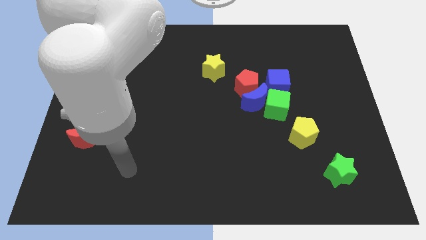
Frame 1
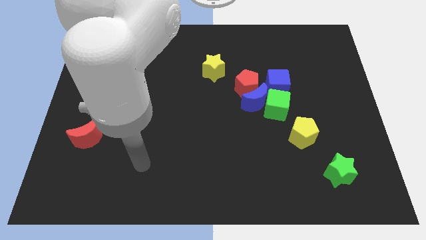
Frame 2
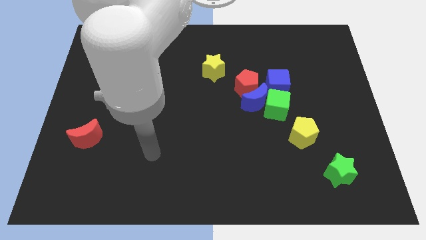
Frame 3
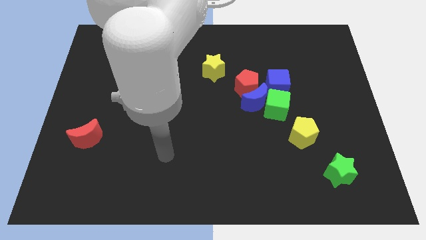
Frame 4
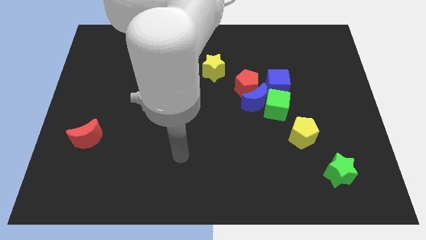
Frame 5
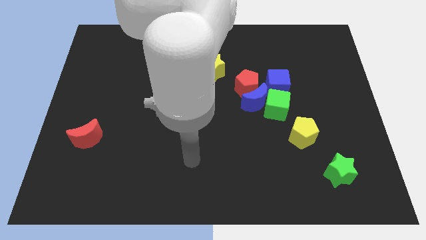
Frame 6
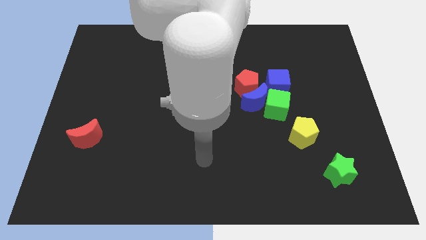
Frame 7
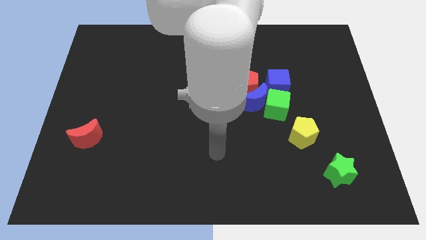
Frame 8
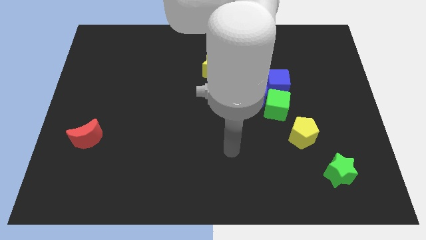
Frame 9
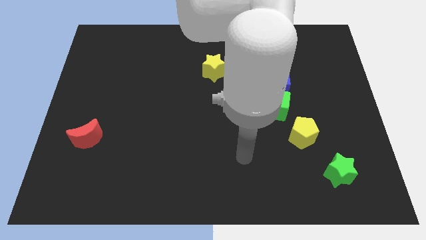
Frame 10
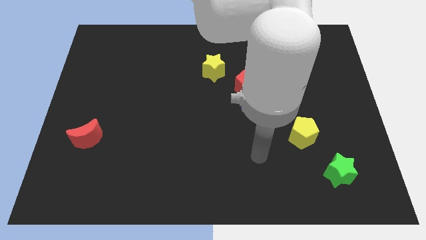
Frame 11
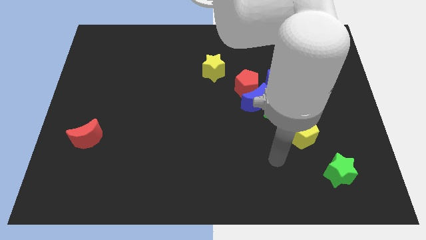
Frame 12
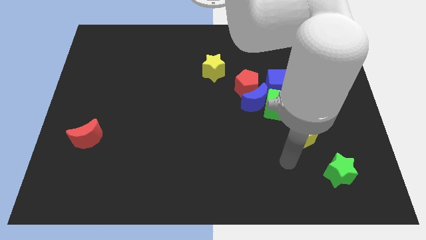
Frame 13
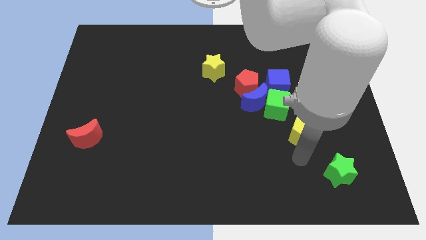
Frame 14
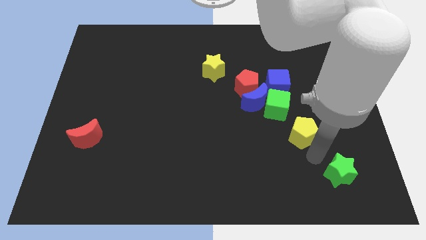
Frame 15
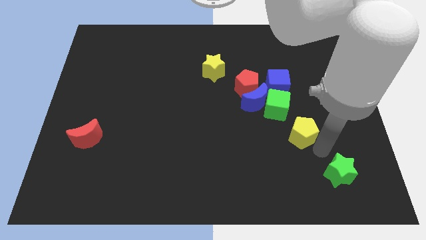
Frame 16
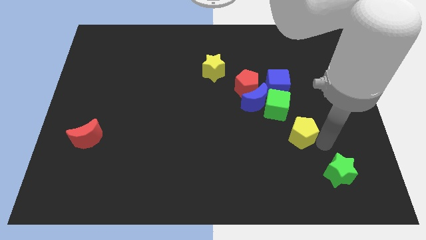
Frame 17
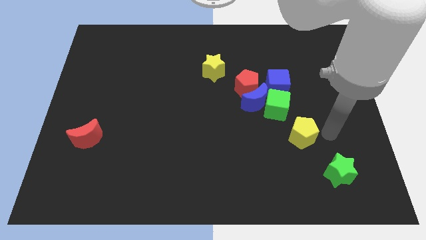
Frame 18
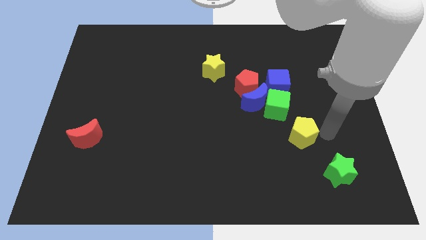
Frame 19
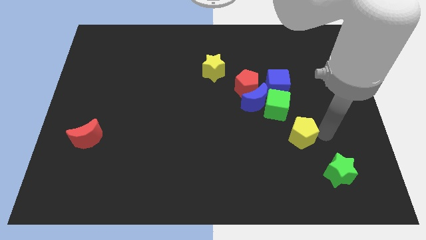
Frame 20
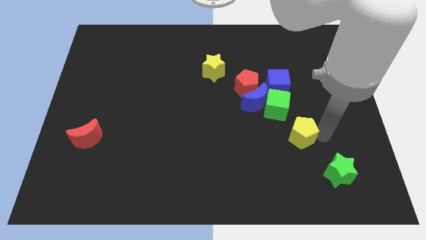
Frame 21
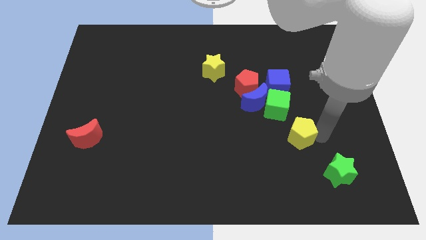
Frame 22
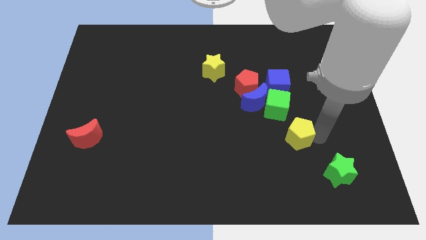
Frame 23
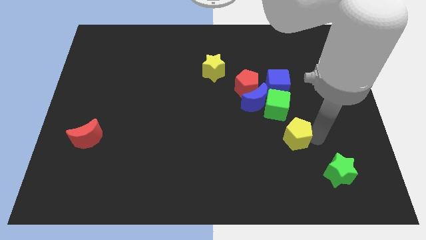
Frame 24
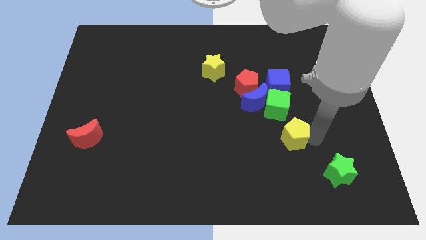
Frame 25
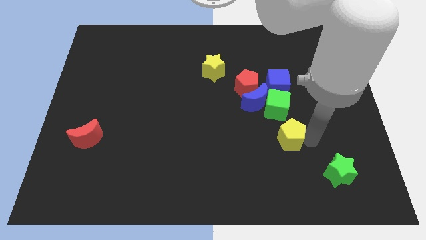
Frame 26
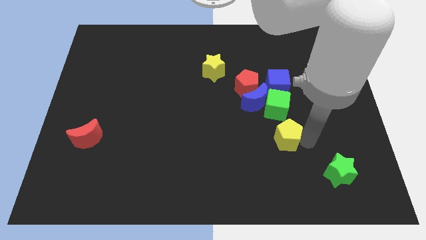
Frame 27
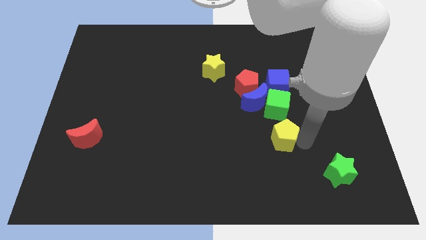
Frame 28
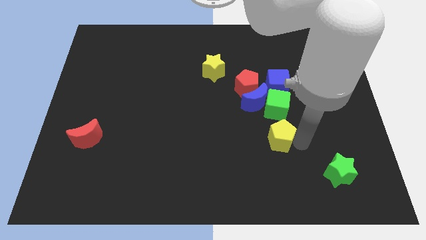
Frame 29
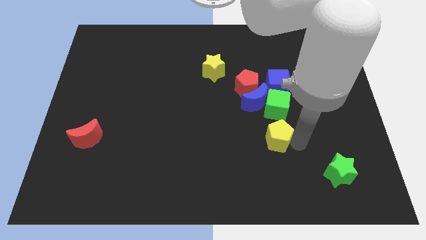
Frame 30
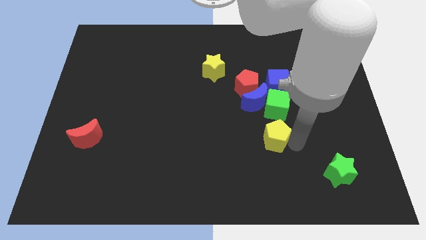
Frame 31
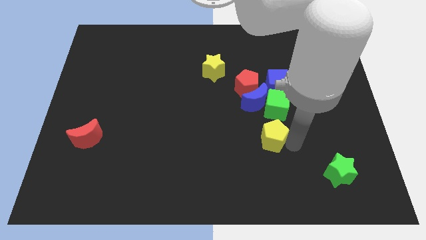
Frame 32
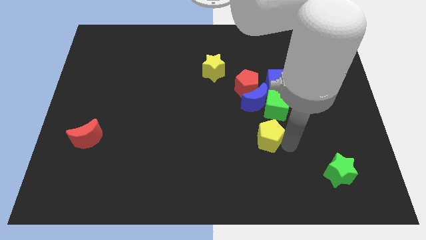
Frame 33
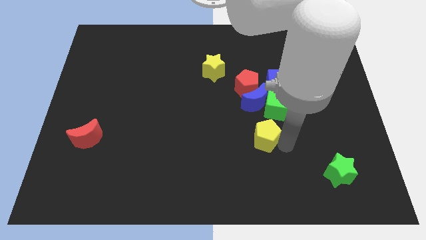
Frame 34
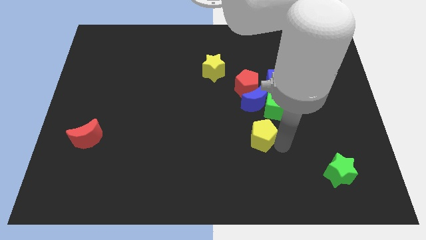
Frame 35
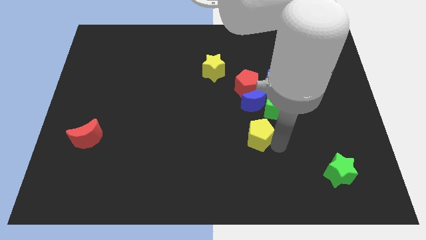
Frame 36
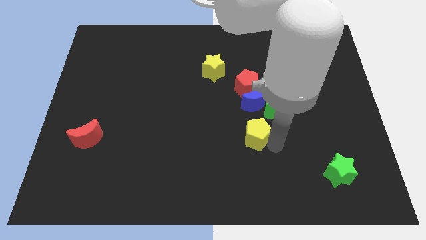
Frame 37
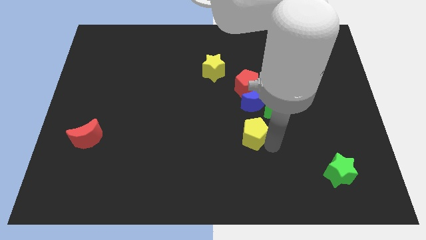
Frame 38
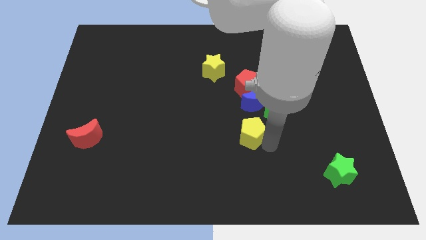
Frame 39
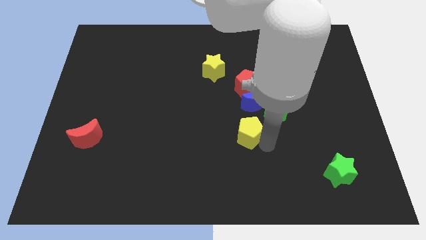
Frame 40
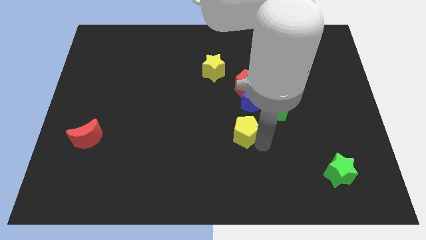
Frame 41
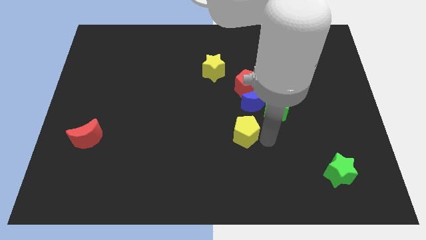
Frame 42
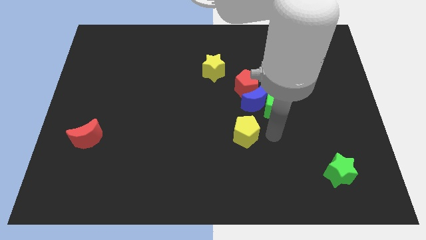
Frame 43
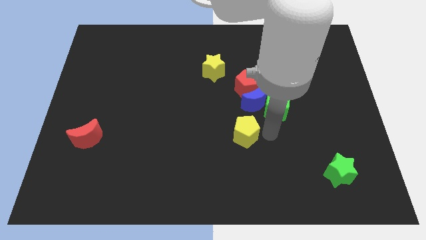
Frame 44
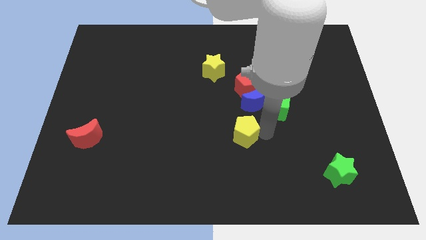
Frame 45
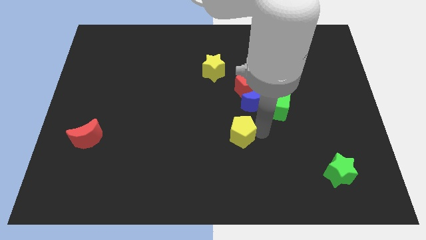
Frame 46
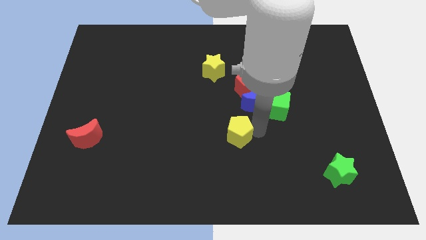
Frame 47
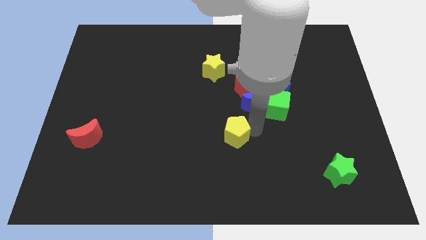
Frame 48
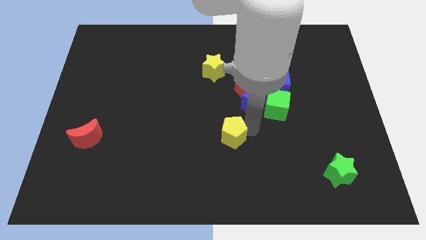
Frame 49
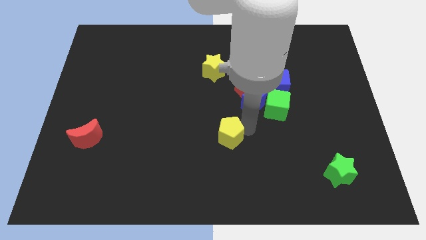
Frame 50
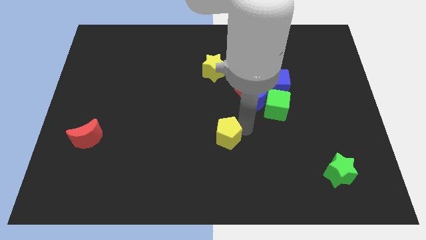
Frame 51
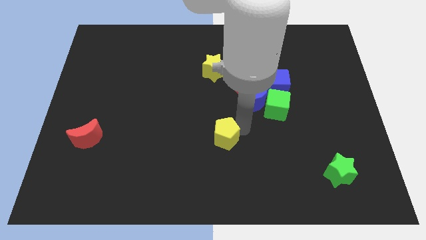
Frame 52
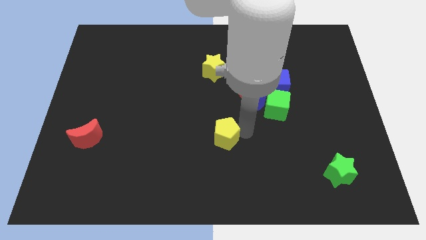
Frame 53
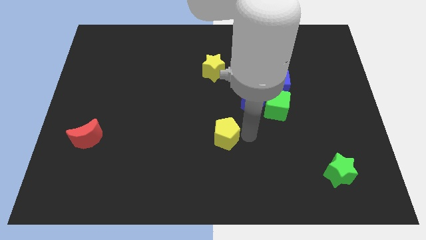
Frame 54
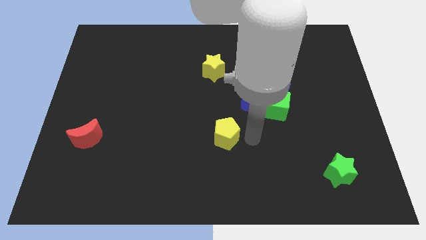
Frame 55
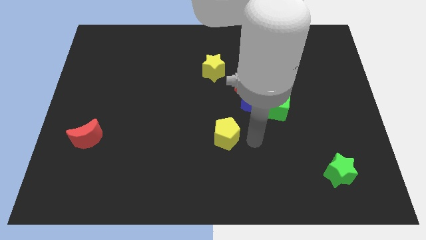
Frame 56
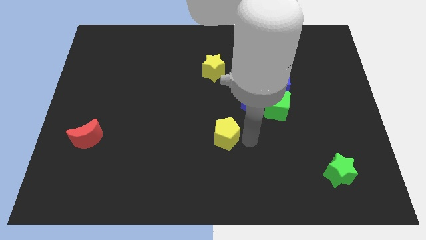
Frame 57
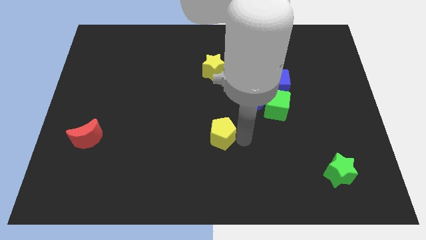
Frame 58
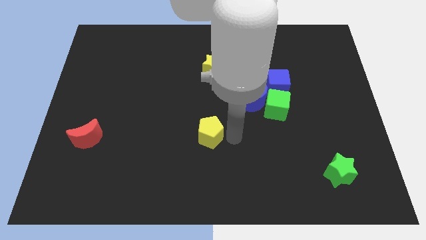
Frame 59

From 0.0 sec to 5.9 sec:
move the yellow pentagon to the left

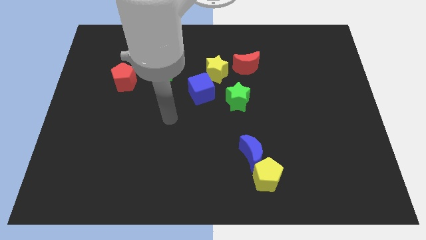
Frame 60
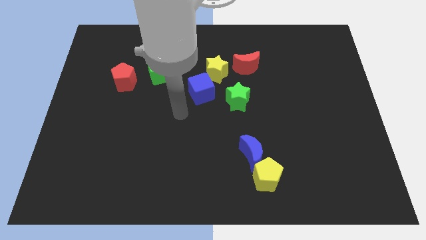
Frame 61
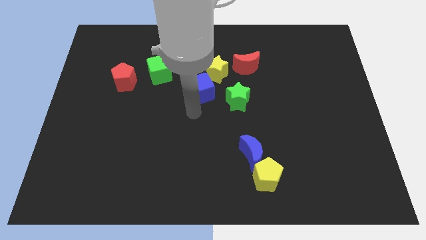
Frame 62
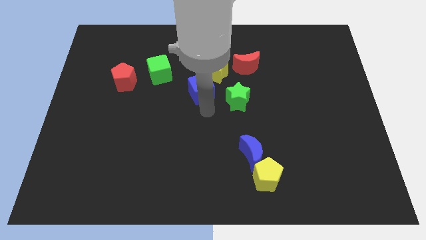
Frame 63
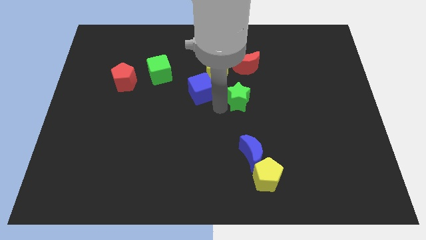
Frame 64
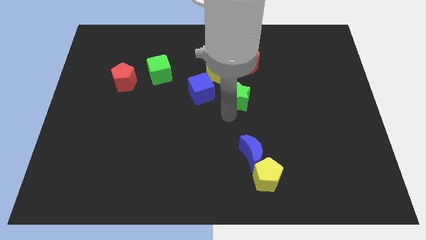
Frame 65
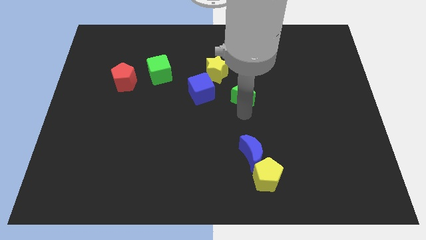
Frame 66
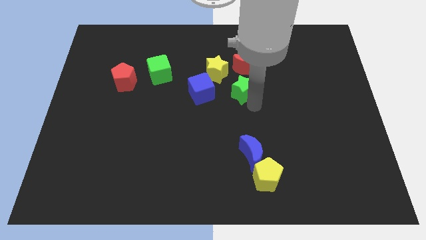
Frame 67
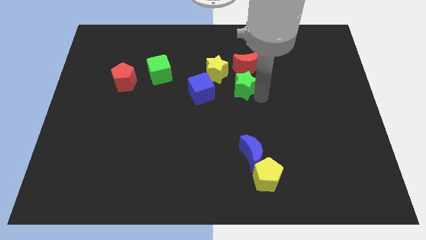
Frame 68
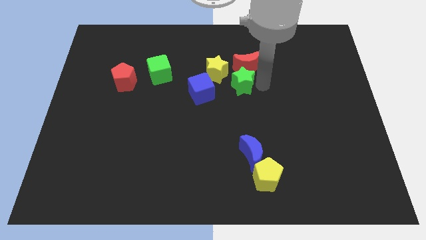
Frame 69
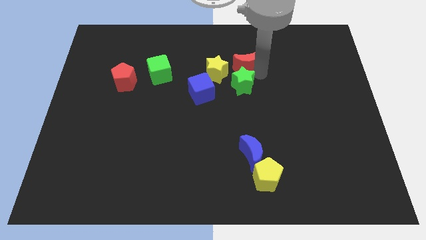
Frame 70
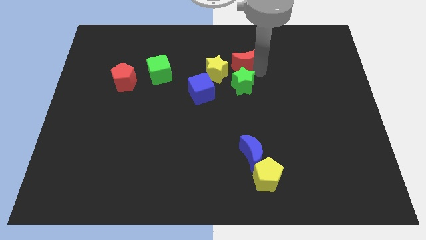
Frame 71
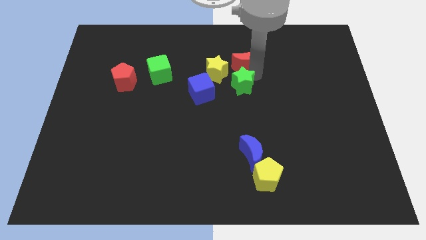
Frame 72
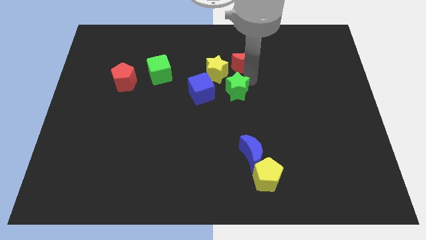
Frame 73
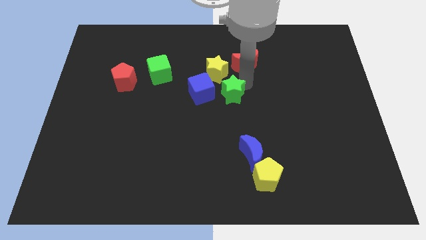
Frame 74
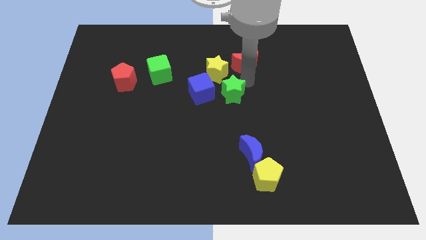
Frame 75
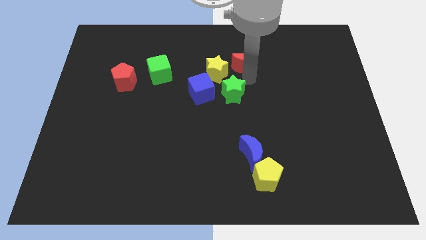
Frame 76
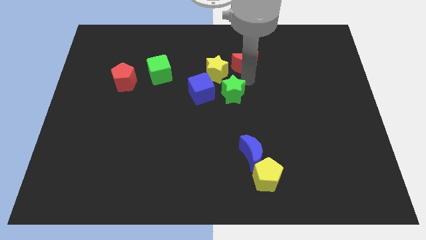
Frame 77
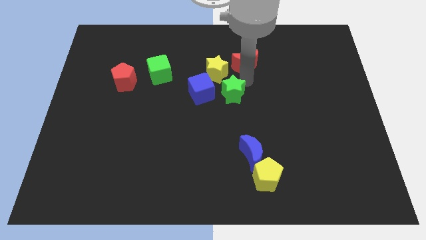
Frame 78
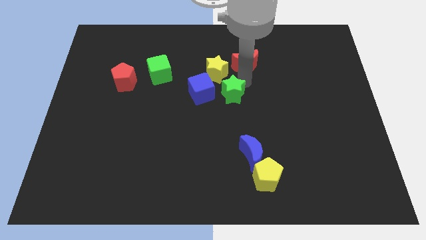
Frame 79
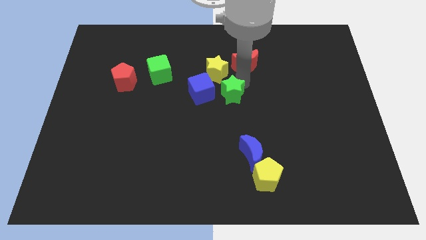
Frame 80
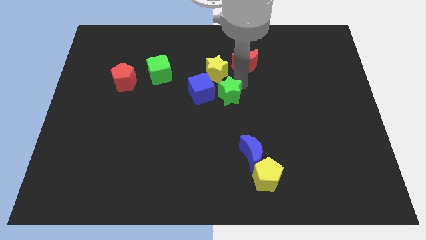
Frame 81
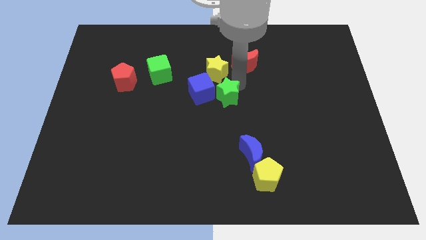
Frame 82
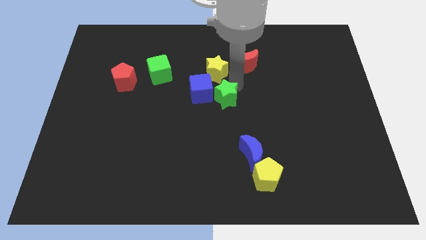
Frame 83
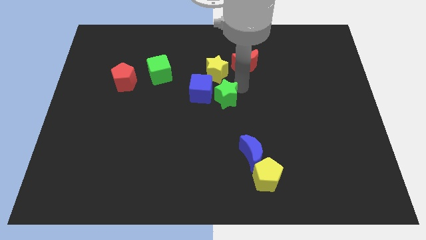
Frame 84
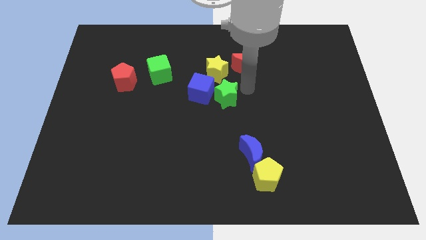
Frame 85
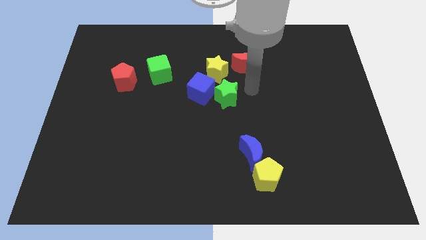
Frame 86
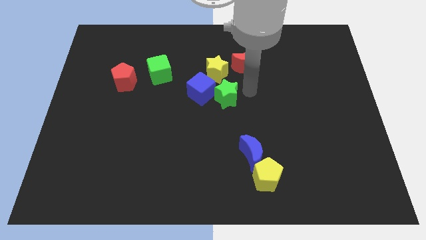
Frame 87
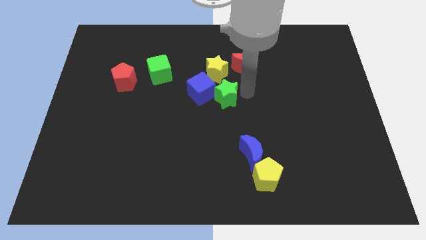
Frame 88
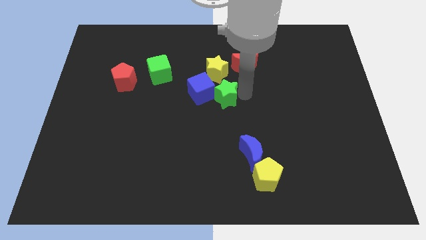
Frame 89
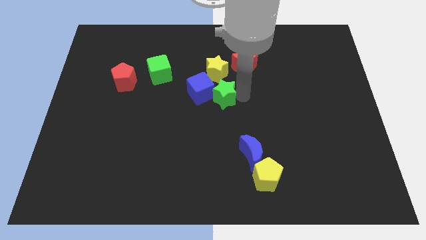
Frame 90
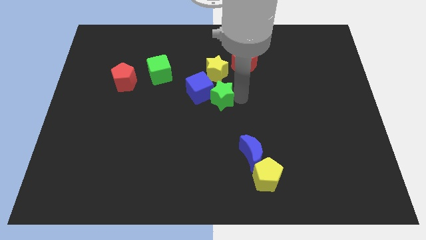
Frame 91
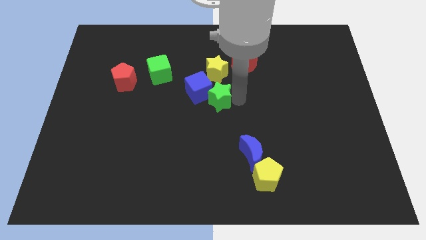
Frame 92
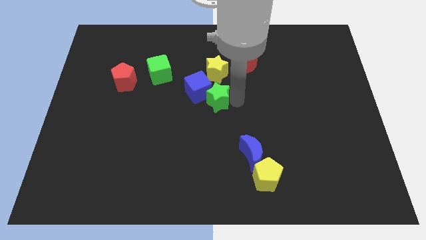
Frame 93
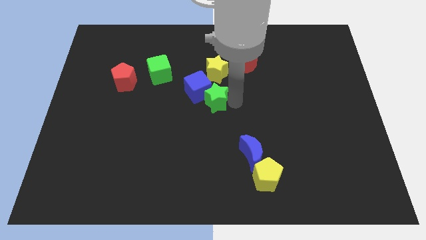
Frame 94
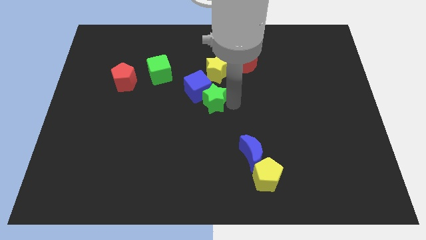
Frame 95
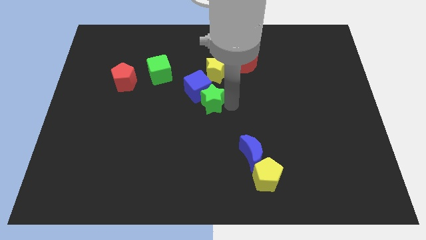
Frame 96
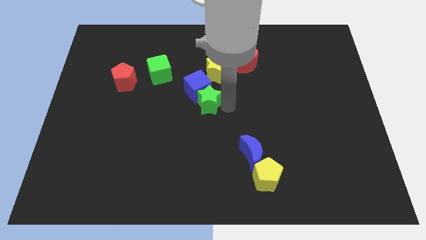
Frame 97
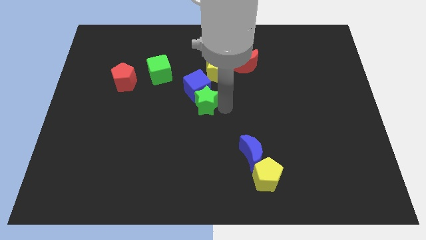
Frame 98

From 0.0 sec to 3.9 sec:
push the green star left somewhat
